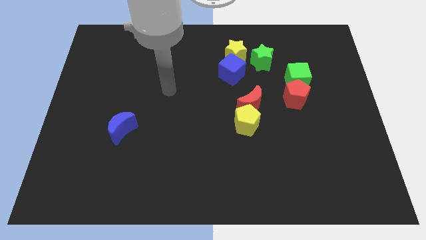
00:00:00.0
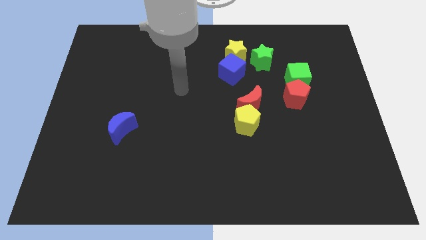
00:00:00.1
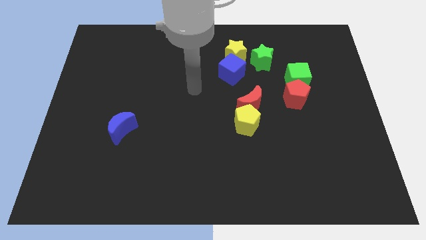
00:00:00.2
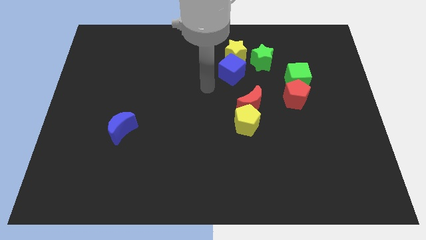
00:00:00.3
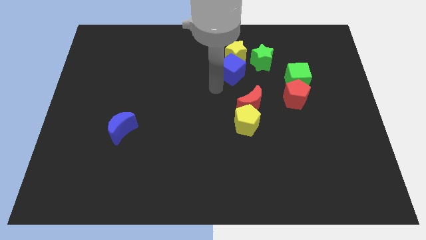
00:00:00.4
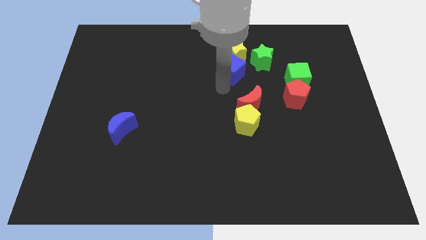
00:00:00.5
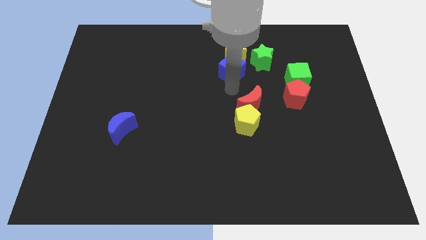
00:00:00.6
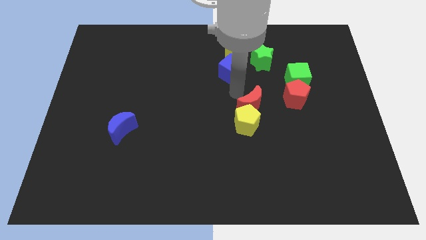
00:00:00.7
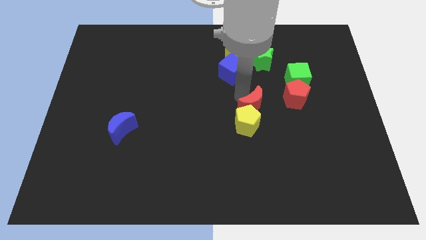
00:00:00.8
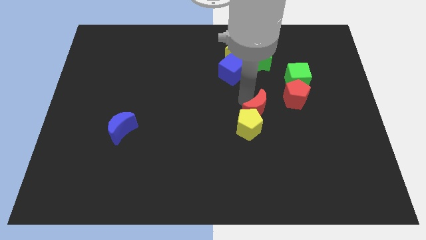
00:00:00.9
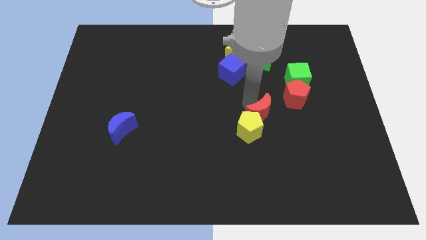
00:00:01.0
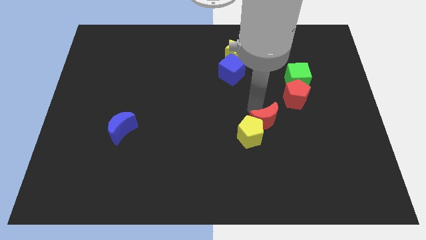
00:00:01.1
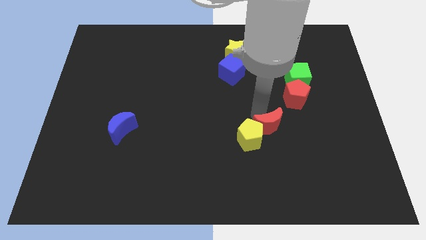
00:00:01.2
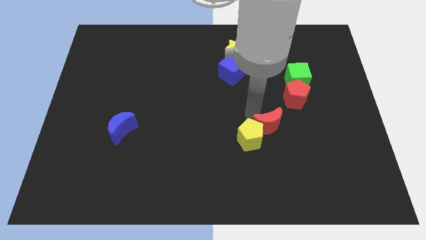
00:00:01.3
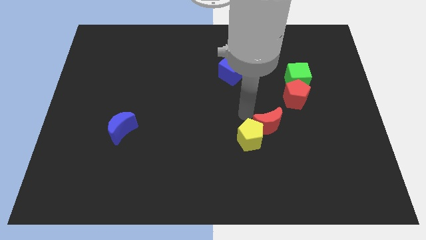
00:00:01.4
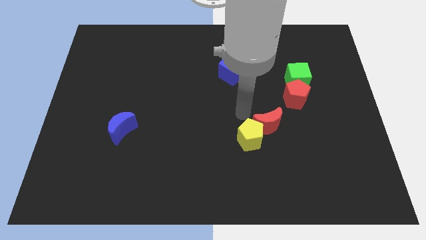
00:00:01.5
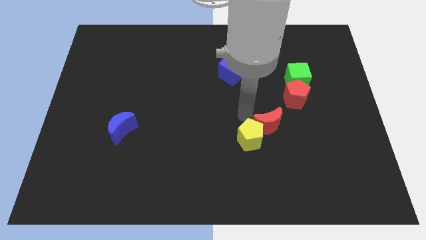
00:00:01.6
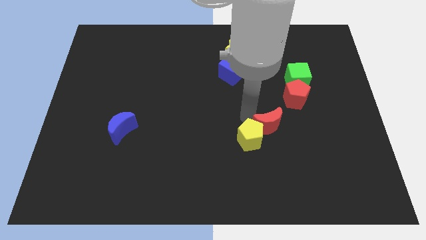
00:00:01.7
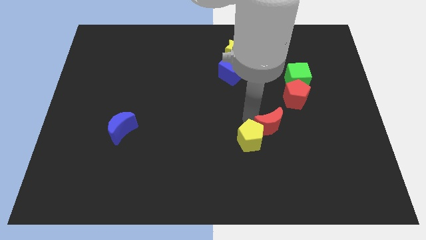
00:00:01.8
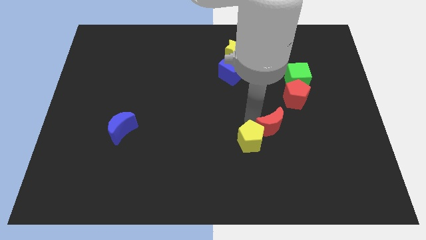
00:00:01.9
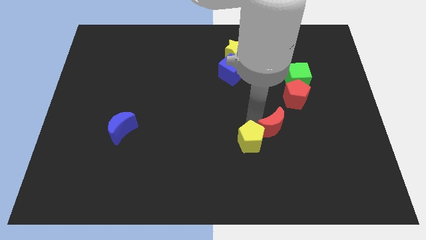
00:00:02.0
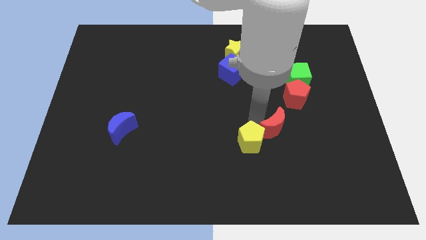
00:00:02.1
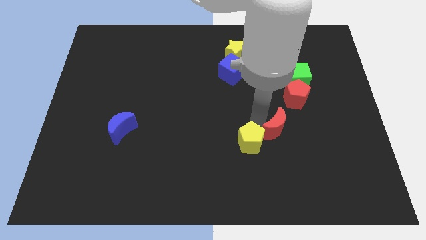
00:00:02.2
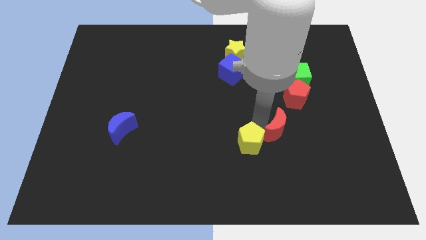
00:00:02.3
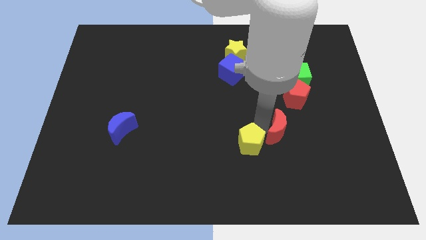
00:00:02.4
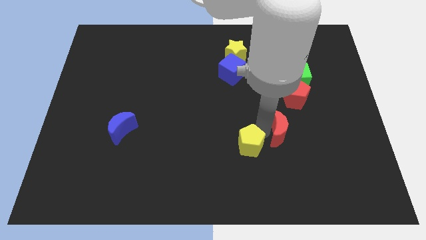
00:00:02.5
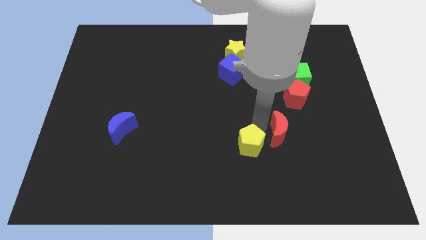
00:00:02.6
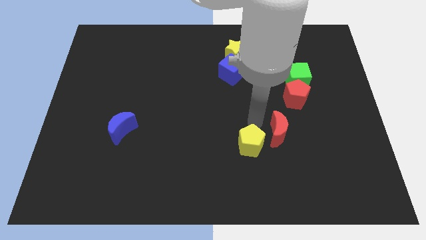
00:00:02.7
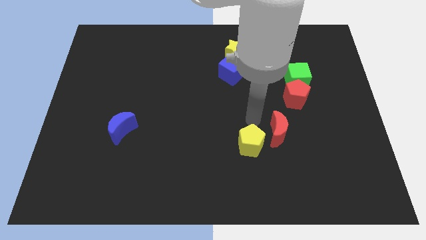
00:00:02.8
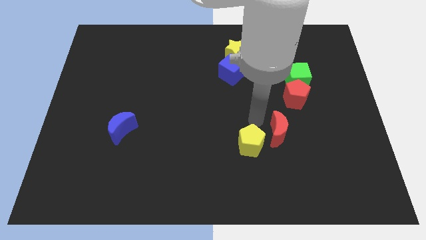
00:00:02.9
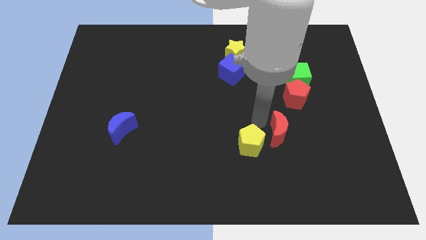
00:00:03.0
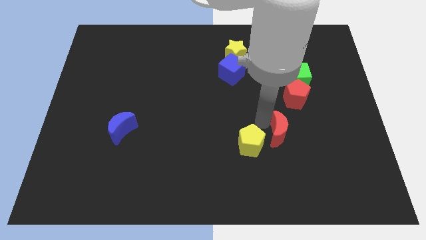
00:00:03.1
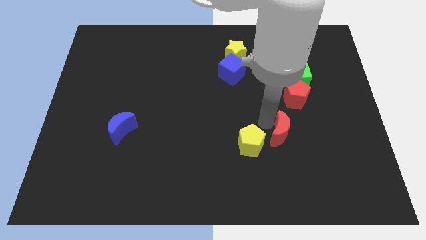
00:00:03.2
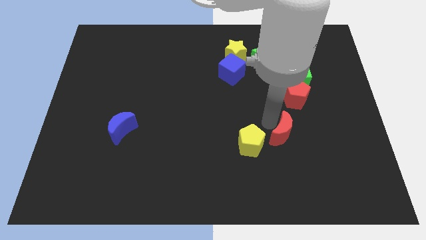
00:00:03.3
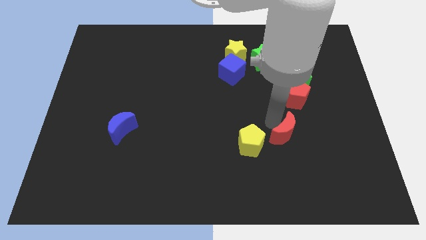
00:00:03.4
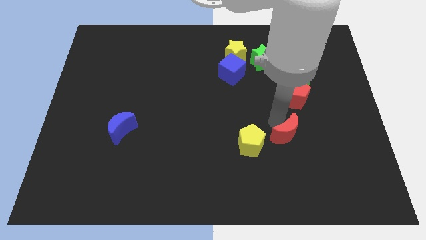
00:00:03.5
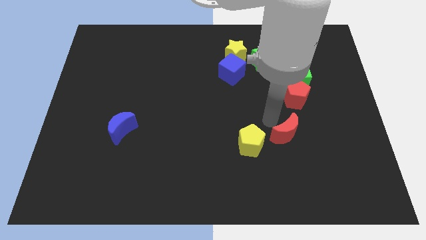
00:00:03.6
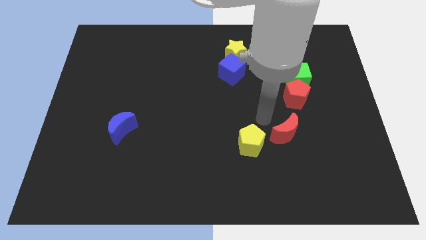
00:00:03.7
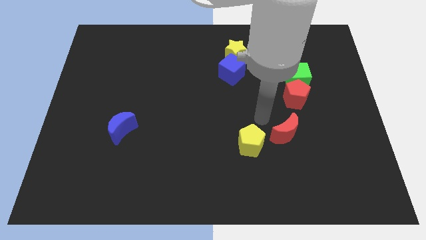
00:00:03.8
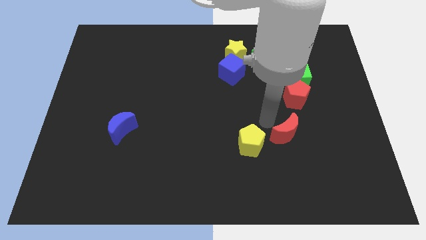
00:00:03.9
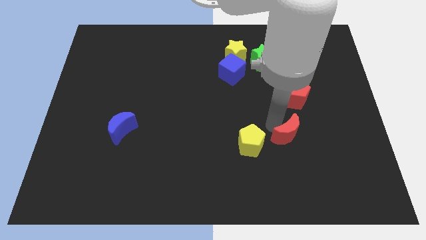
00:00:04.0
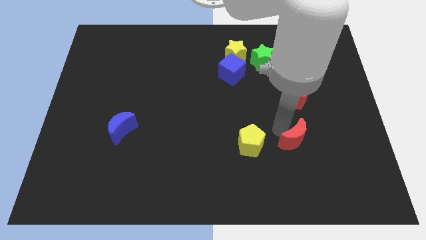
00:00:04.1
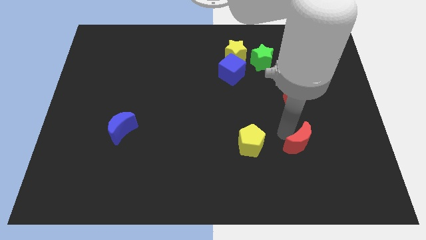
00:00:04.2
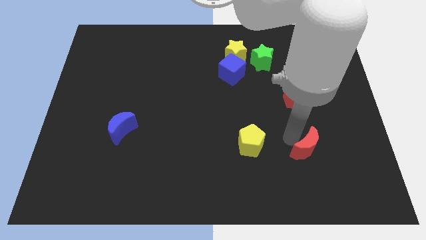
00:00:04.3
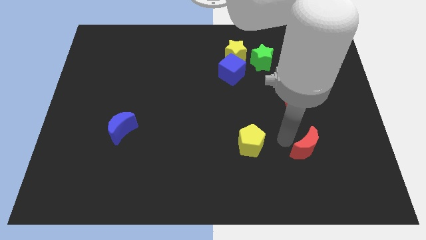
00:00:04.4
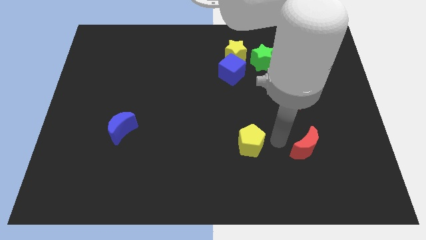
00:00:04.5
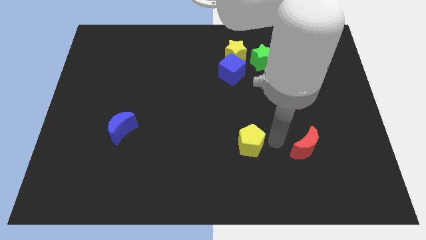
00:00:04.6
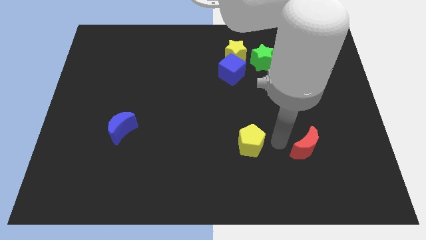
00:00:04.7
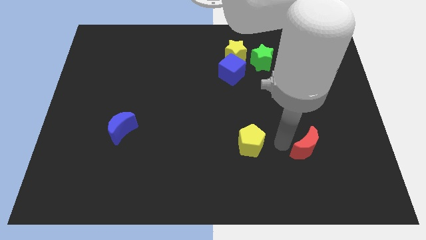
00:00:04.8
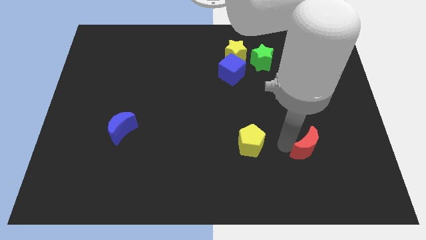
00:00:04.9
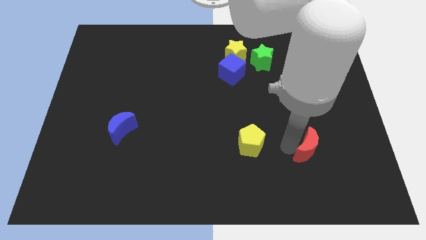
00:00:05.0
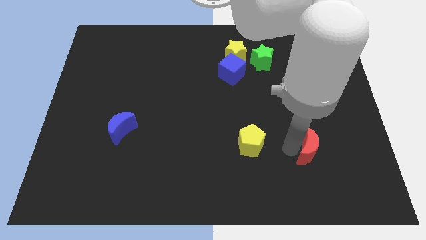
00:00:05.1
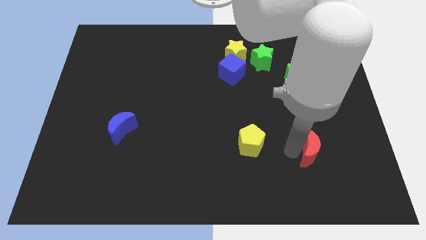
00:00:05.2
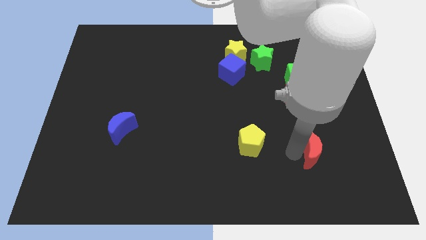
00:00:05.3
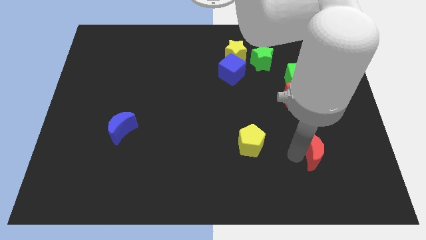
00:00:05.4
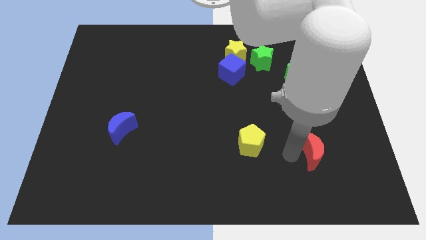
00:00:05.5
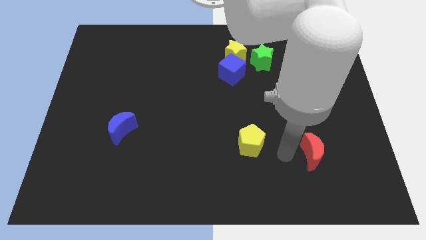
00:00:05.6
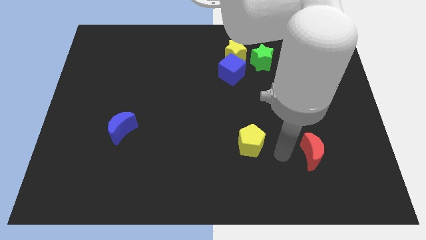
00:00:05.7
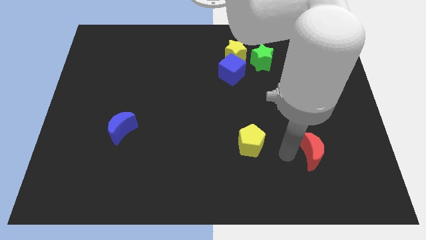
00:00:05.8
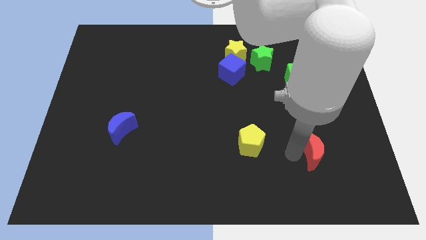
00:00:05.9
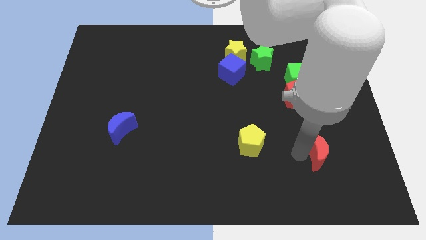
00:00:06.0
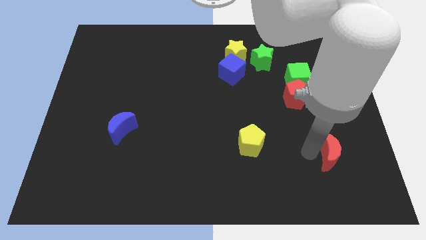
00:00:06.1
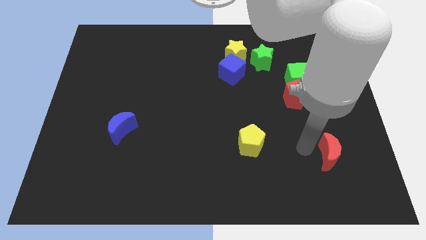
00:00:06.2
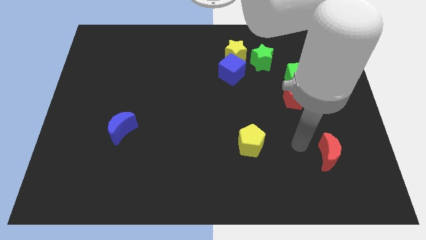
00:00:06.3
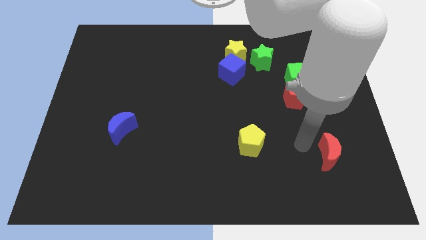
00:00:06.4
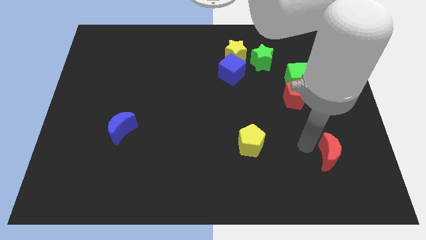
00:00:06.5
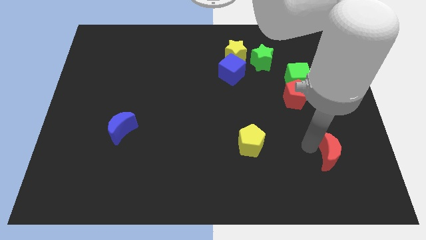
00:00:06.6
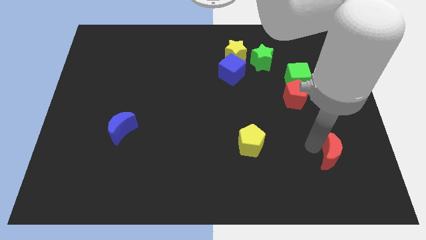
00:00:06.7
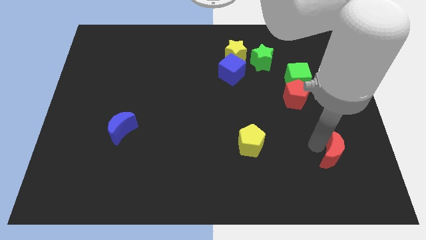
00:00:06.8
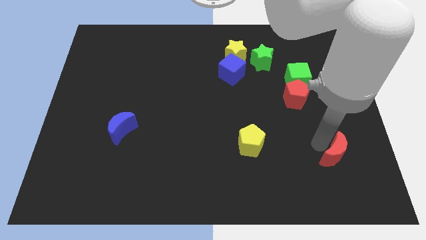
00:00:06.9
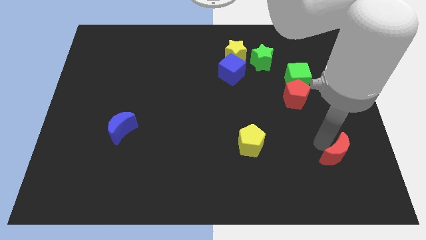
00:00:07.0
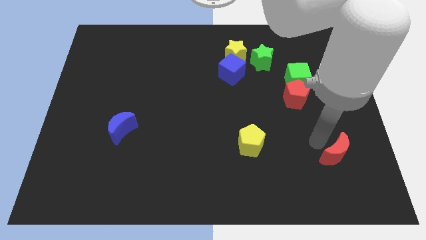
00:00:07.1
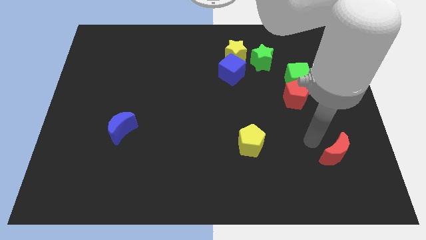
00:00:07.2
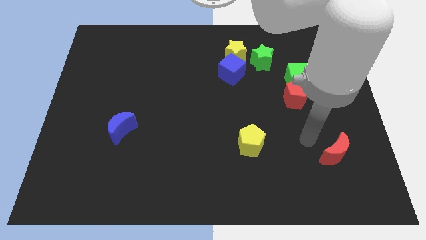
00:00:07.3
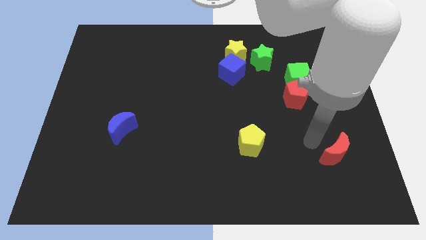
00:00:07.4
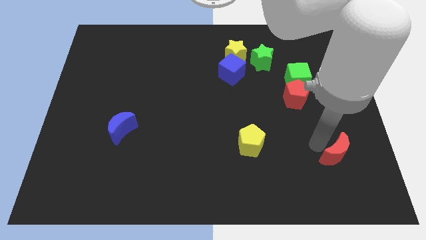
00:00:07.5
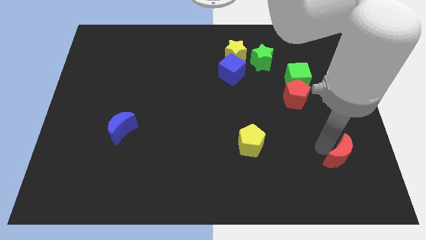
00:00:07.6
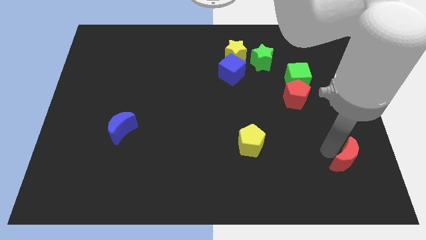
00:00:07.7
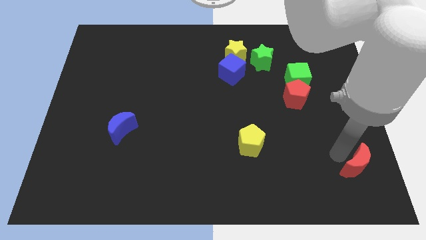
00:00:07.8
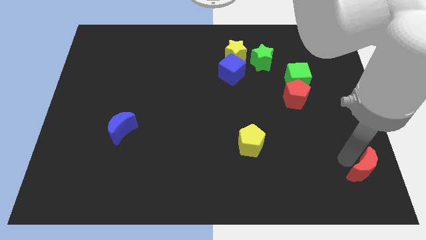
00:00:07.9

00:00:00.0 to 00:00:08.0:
push the red moon to the lower right corner
